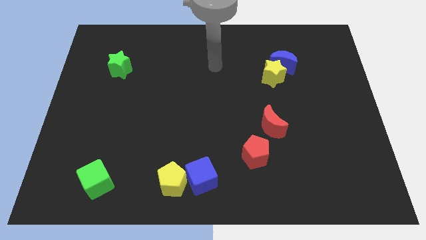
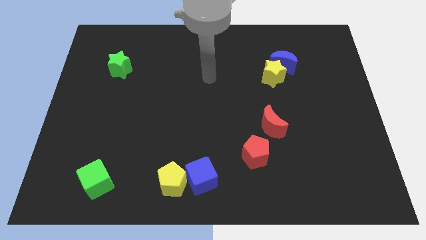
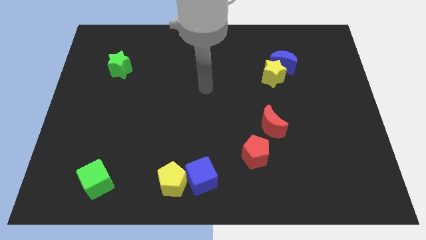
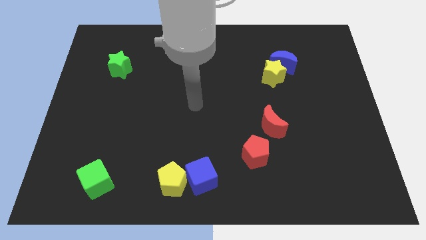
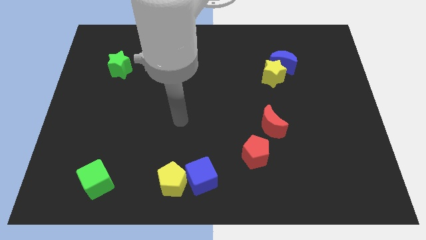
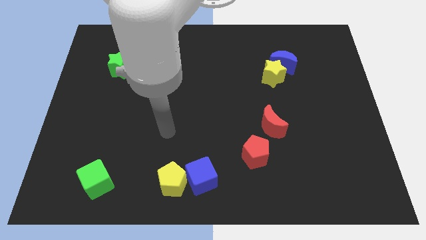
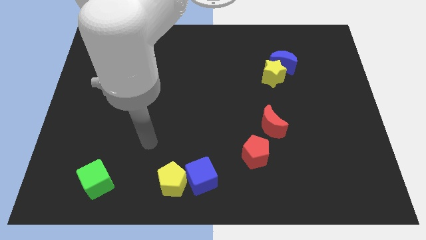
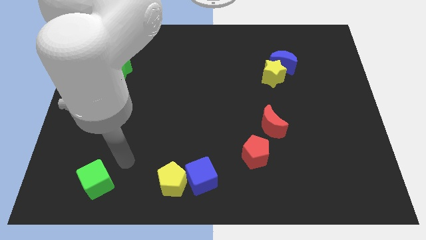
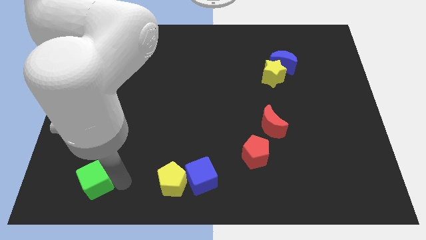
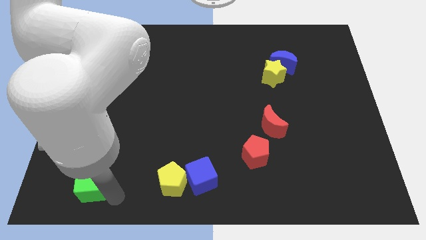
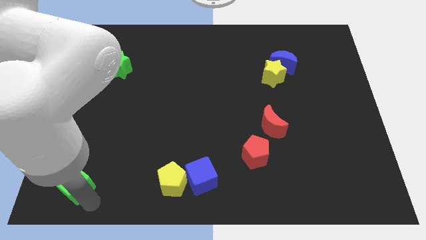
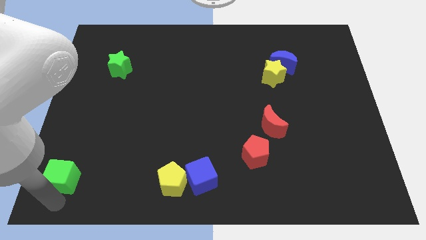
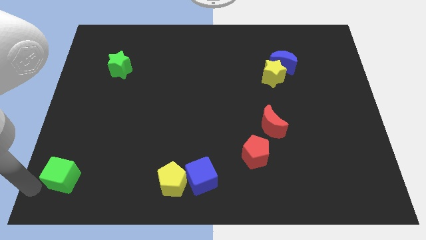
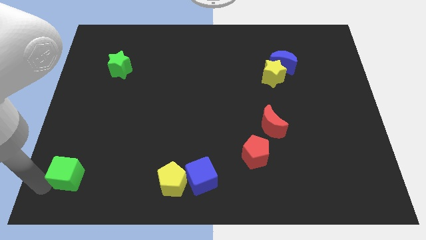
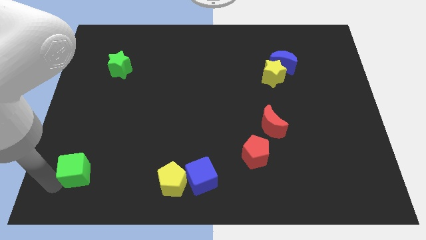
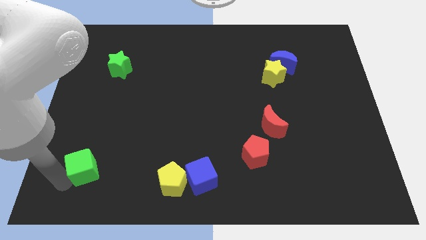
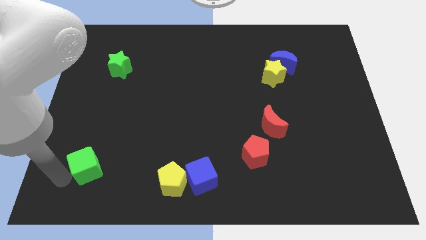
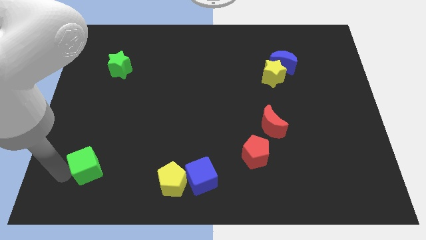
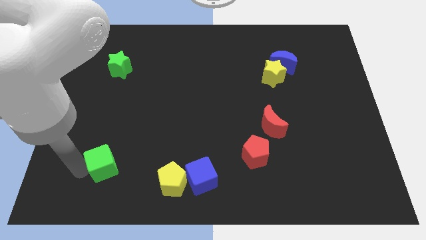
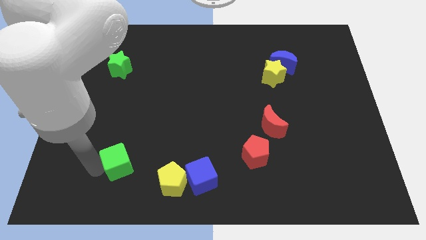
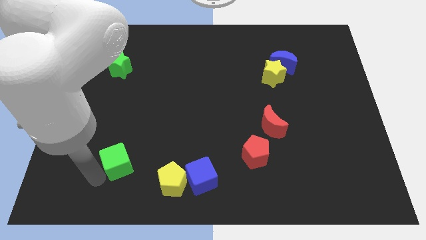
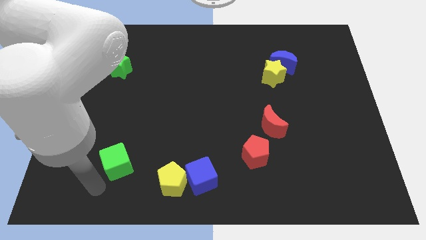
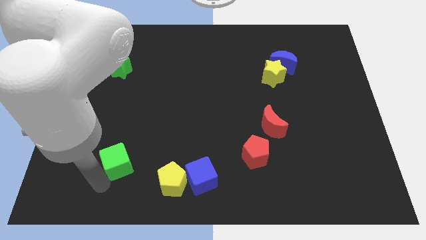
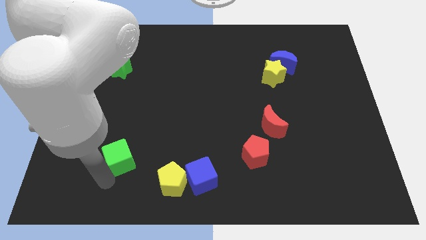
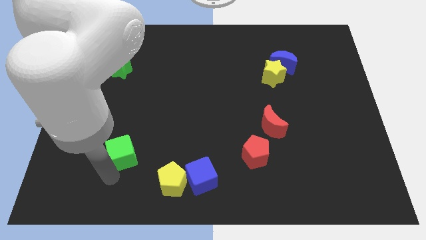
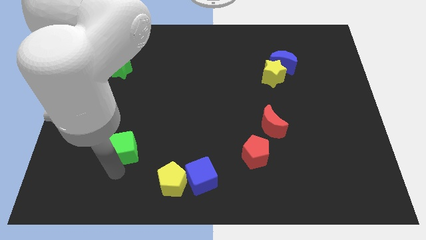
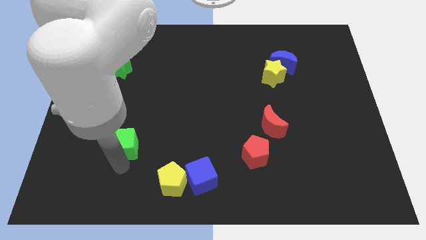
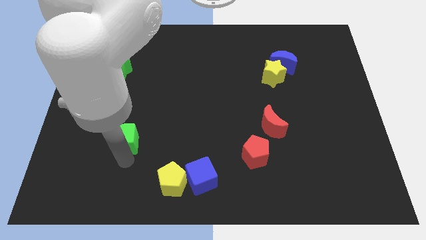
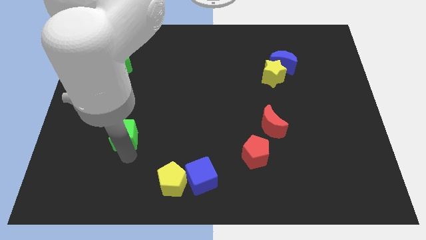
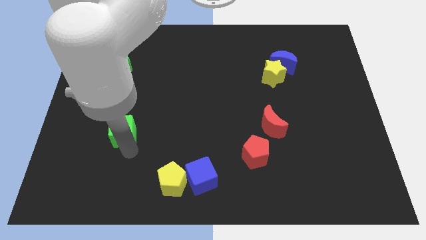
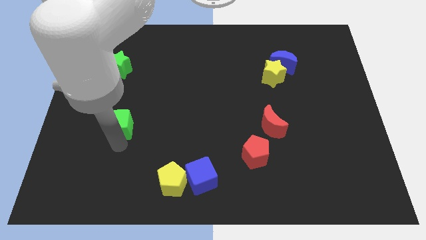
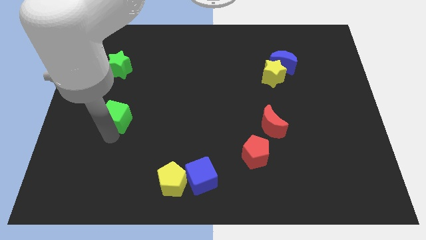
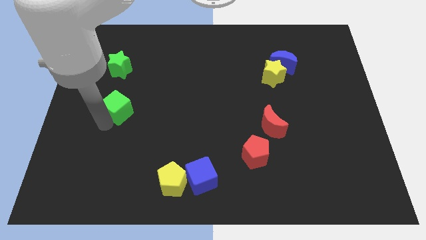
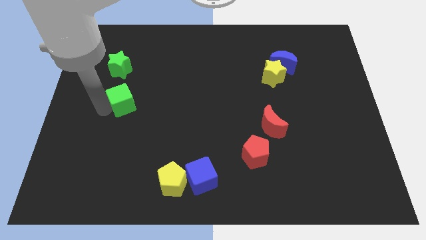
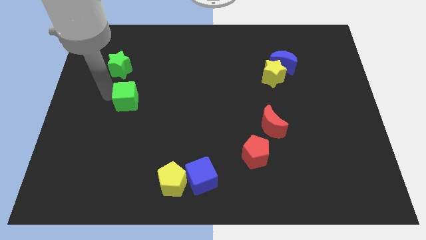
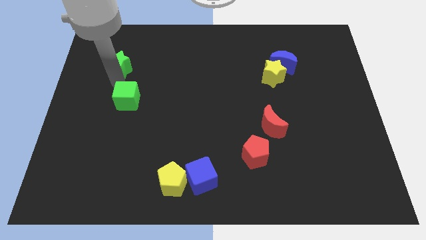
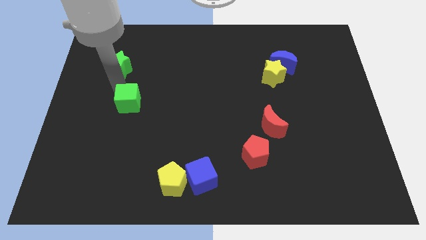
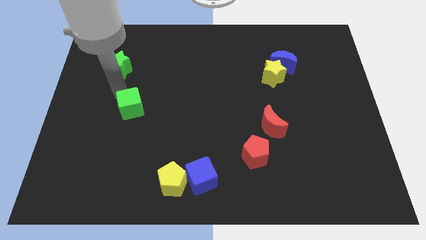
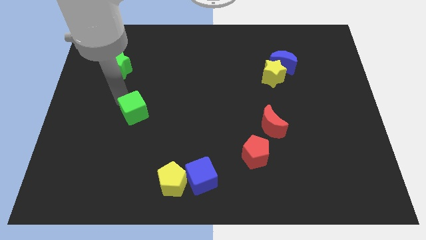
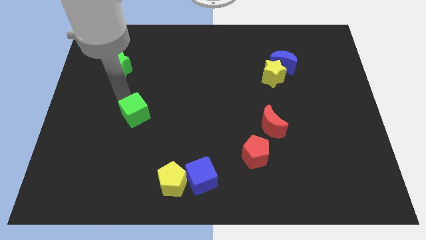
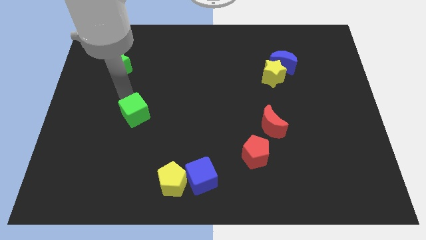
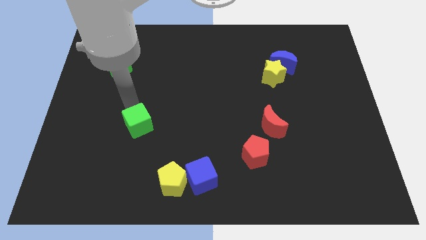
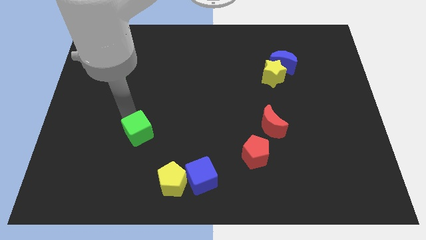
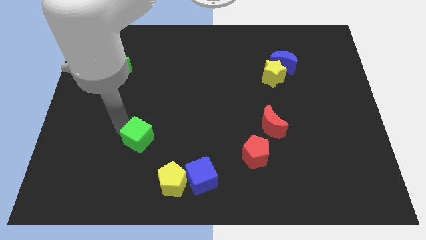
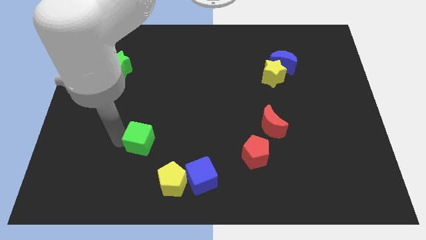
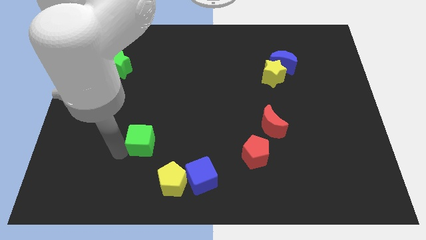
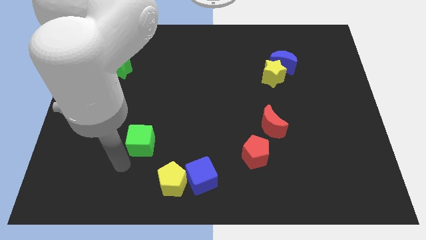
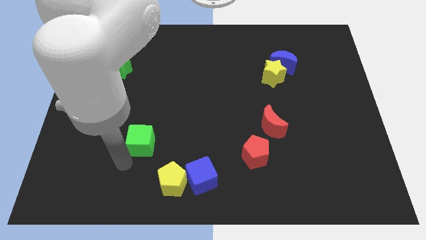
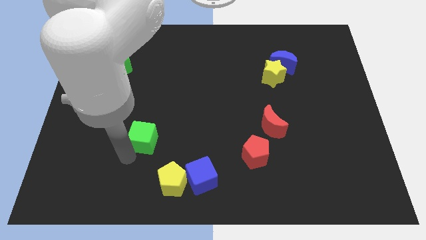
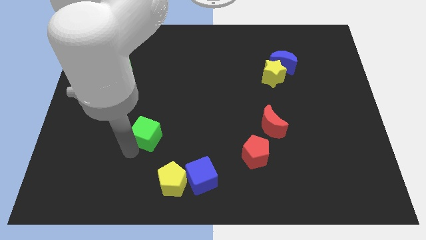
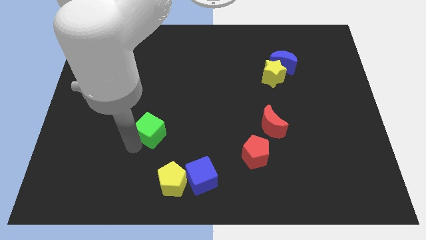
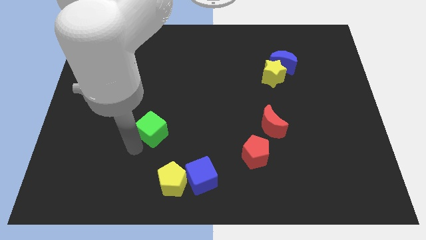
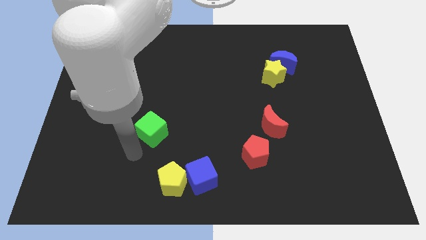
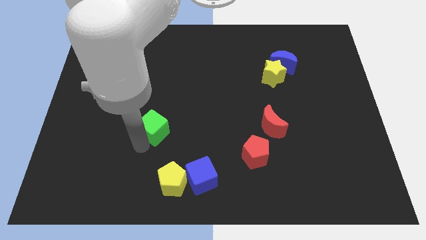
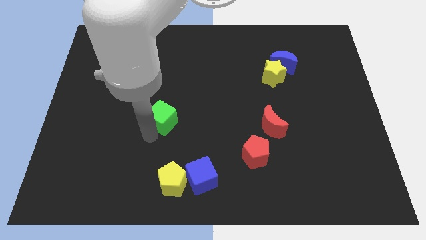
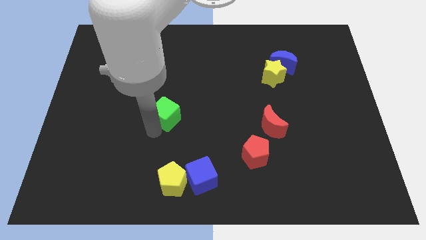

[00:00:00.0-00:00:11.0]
slide the green cube upwards and then to the right

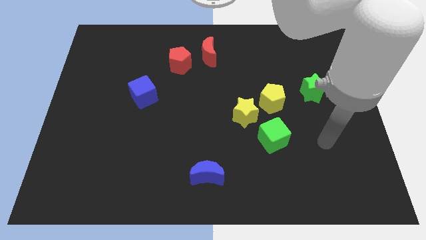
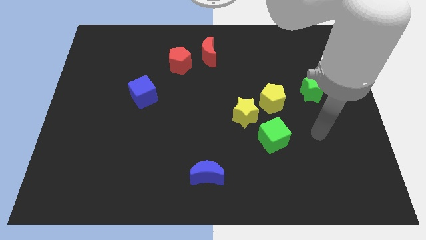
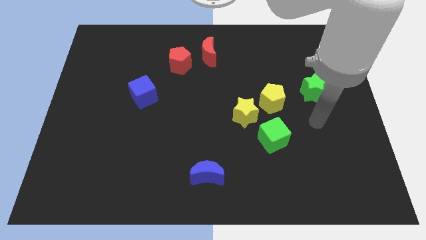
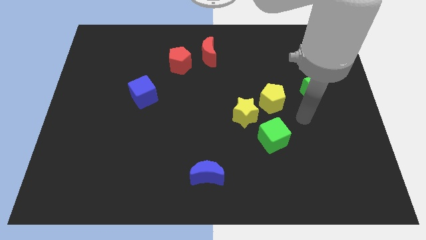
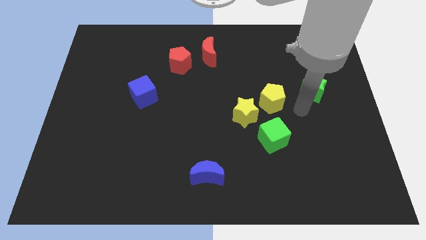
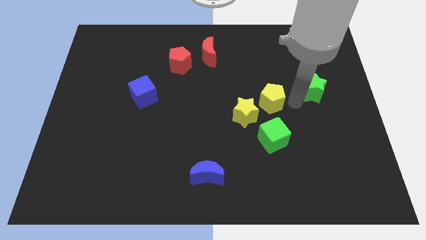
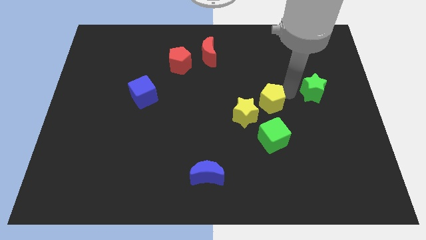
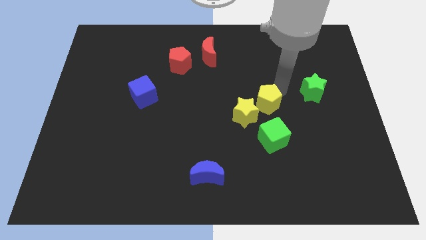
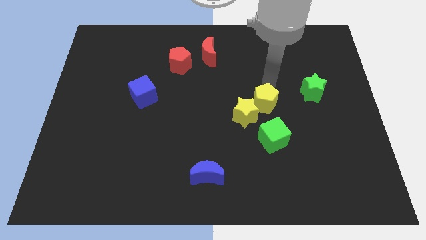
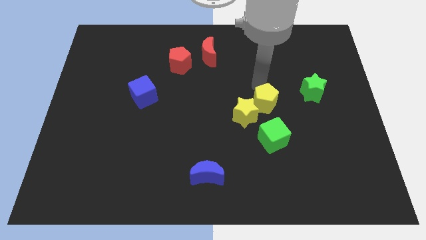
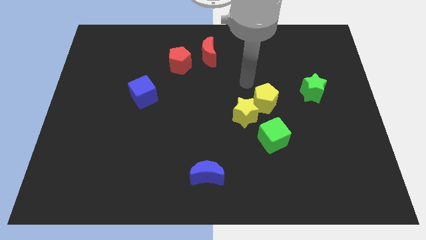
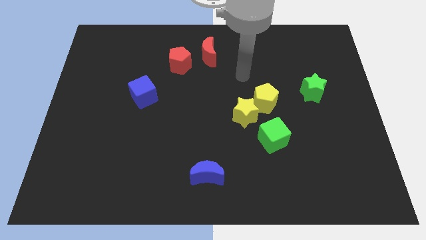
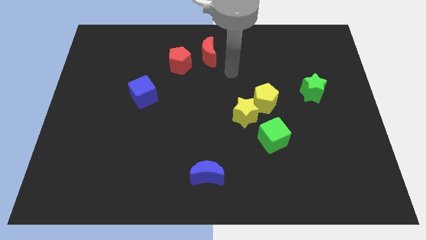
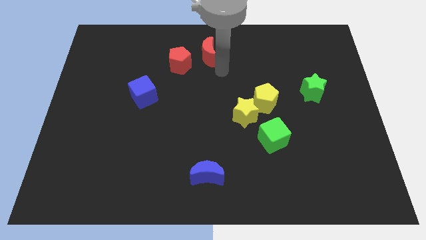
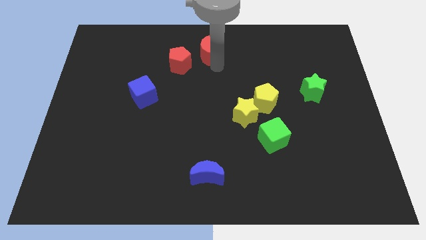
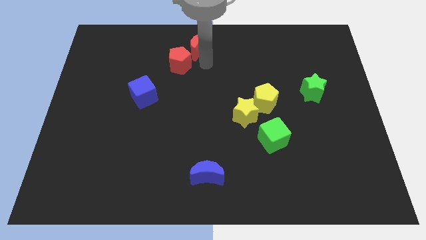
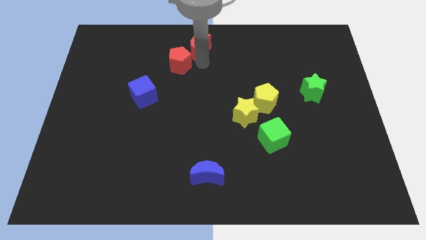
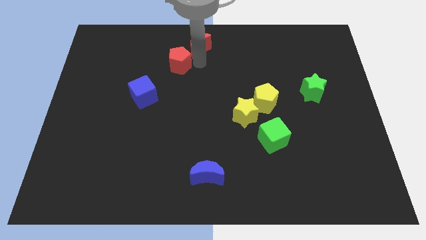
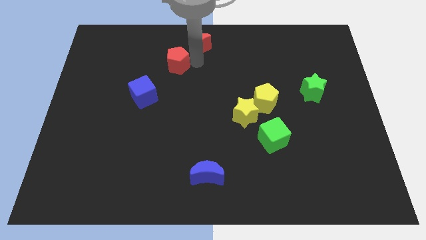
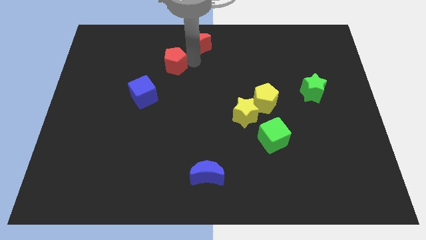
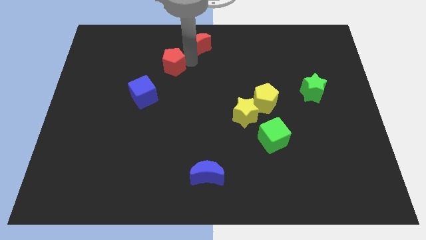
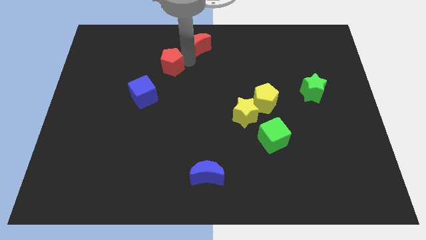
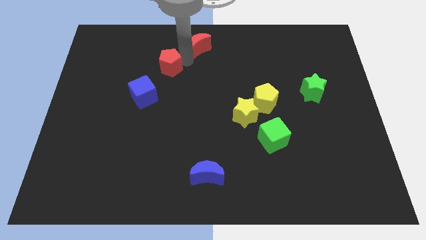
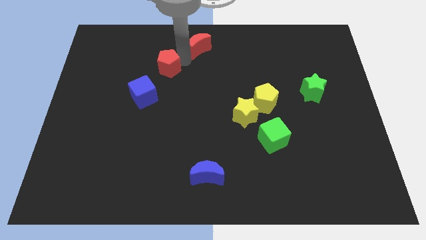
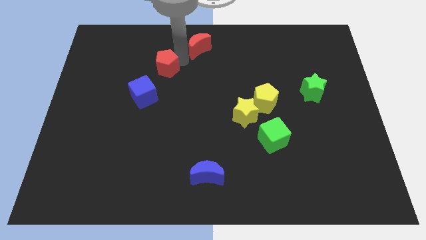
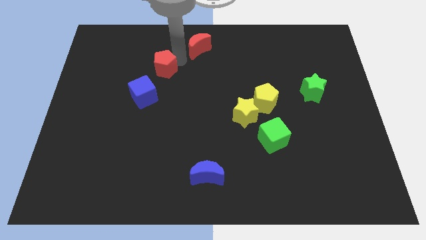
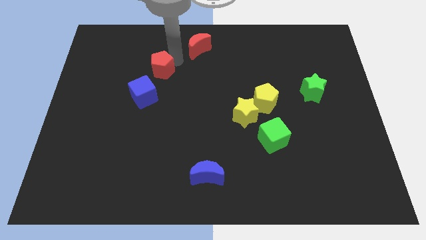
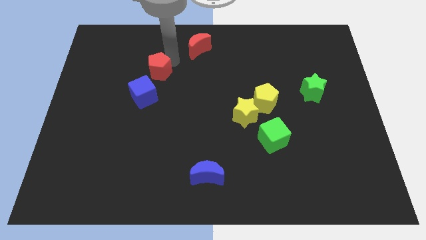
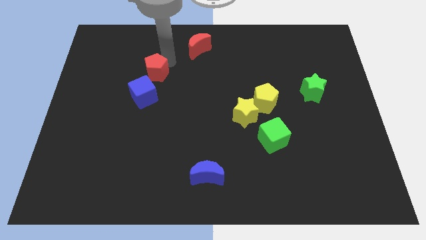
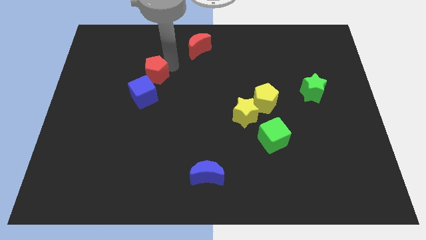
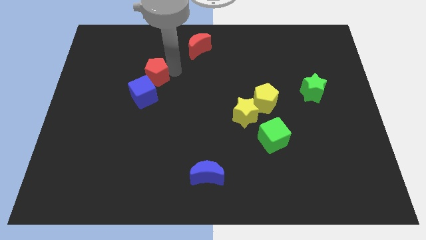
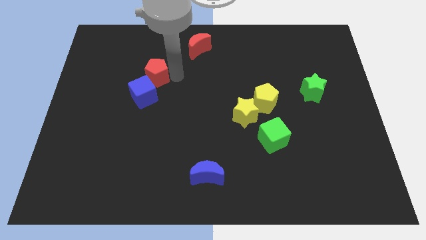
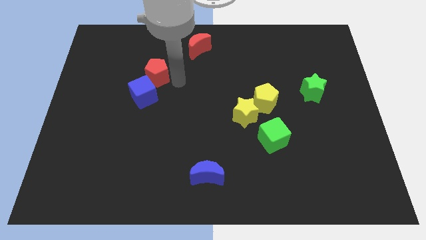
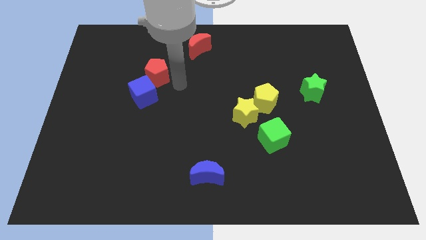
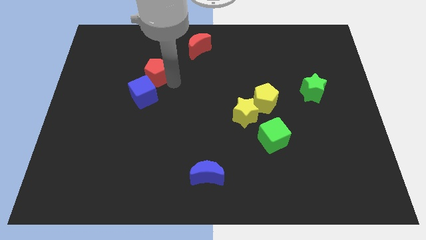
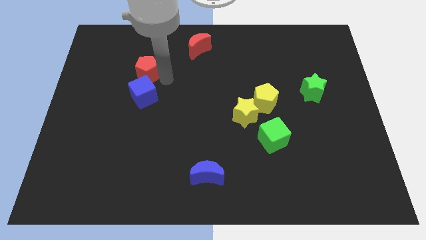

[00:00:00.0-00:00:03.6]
move the red pentagon a bit to the left
